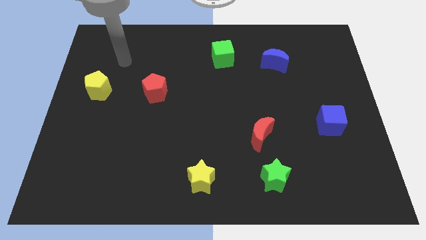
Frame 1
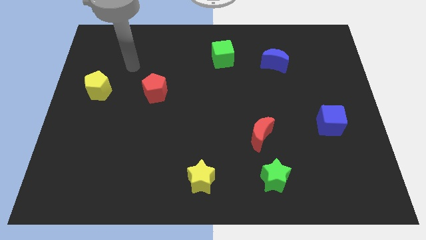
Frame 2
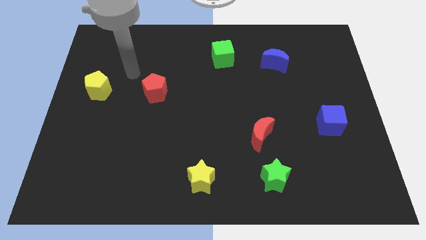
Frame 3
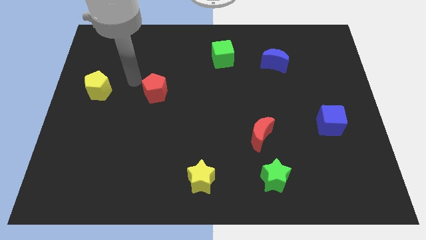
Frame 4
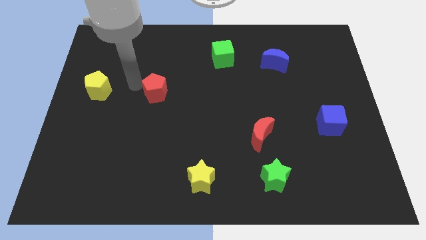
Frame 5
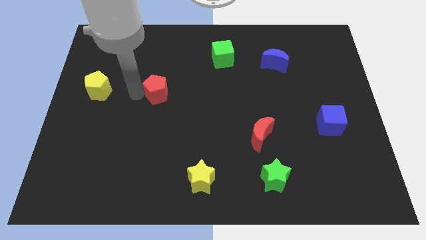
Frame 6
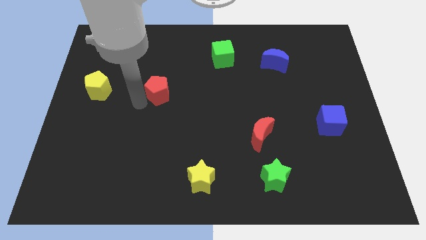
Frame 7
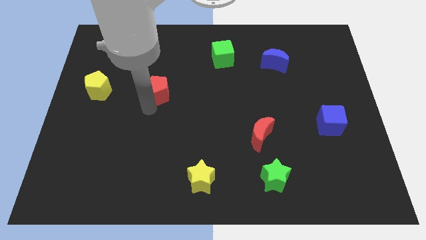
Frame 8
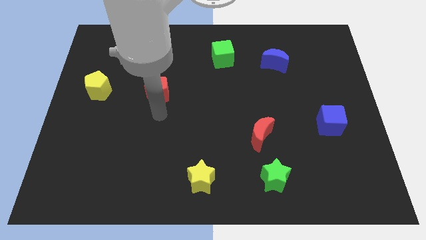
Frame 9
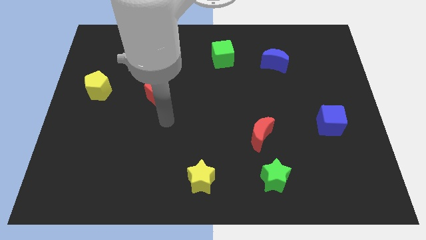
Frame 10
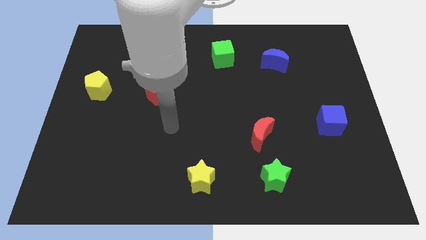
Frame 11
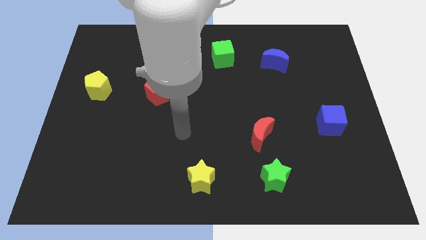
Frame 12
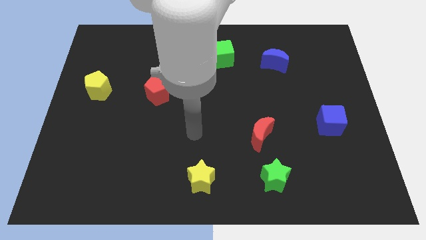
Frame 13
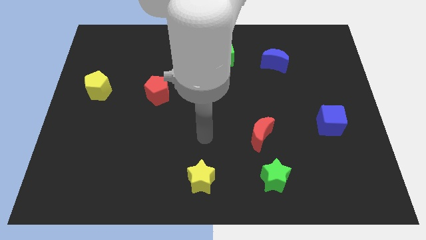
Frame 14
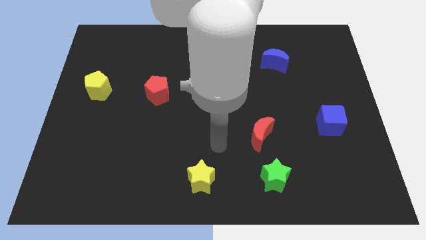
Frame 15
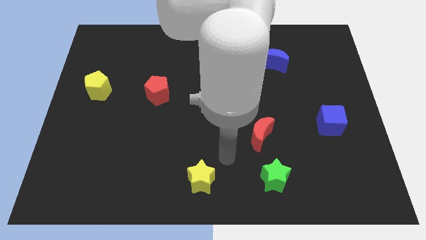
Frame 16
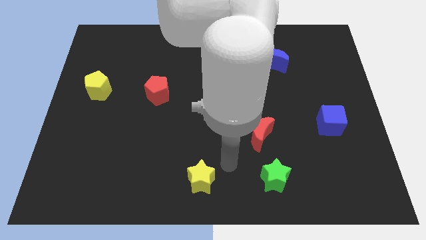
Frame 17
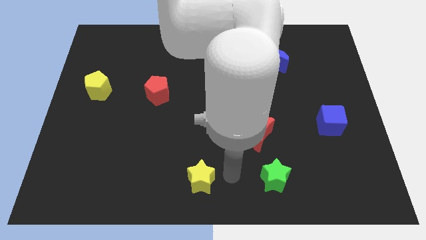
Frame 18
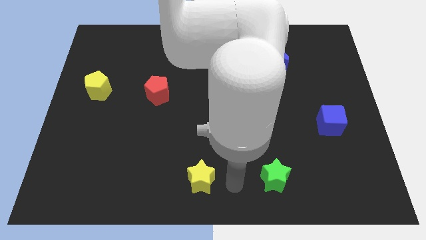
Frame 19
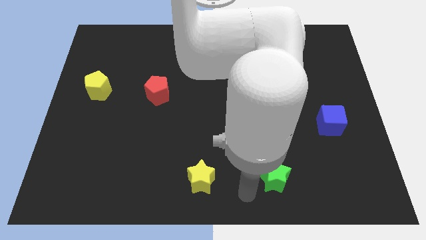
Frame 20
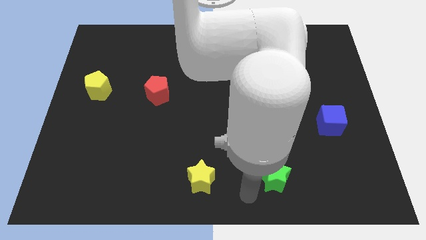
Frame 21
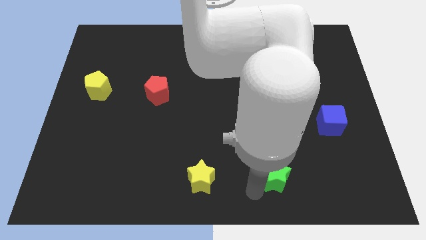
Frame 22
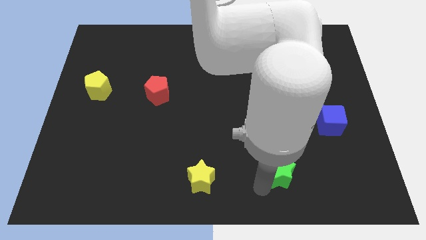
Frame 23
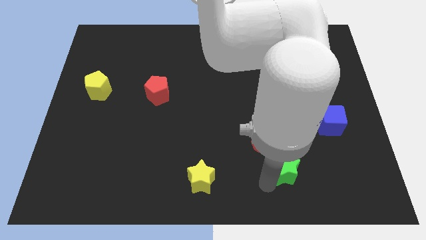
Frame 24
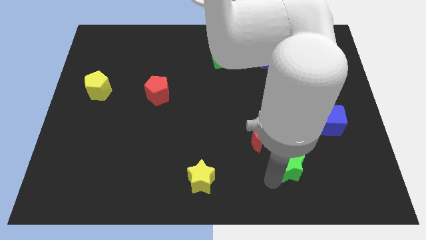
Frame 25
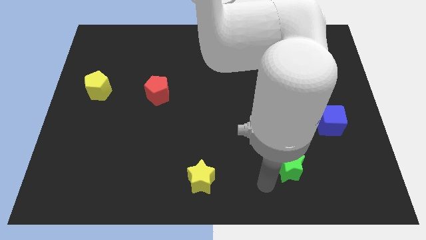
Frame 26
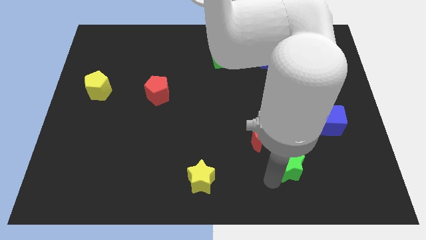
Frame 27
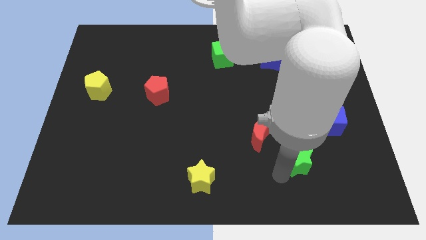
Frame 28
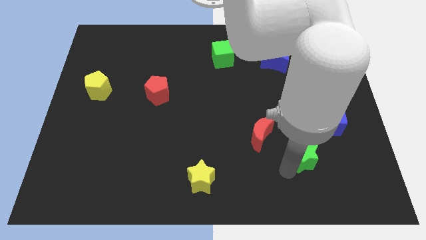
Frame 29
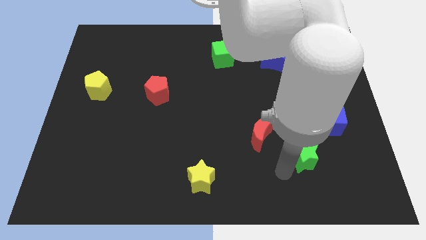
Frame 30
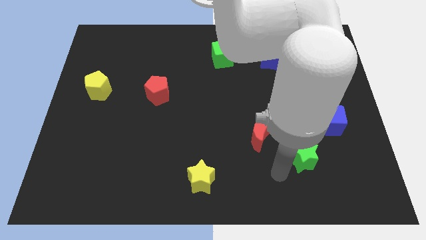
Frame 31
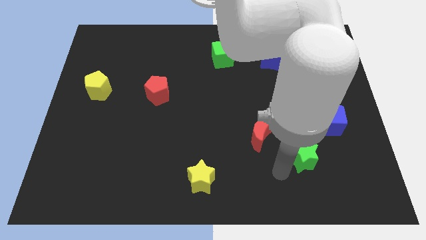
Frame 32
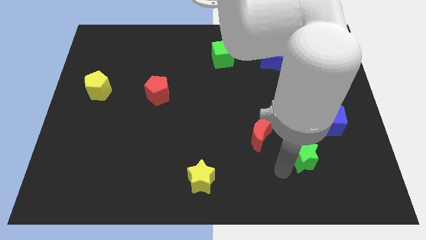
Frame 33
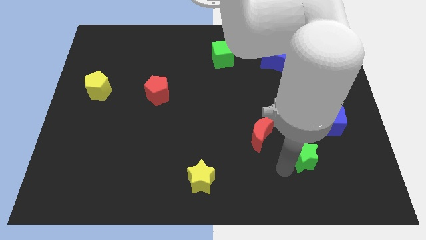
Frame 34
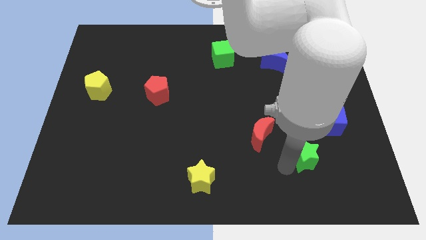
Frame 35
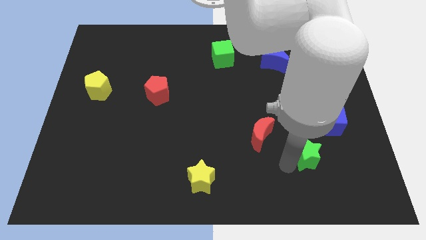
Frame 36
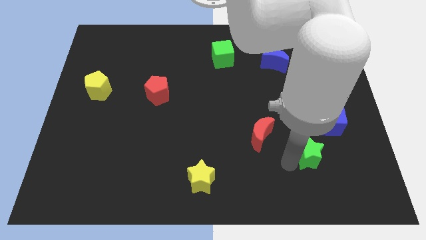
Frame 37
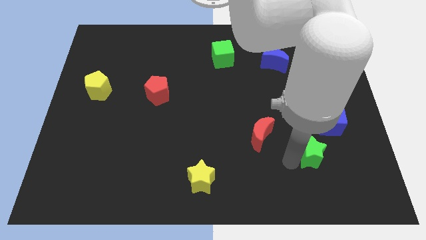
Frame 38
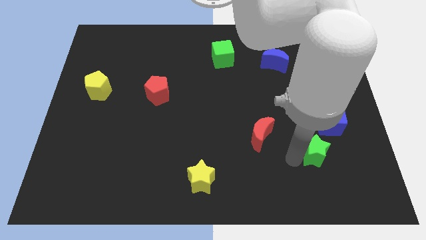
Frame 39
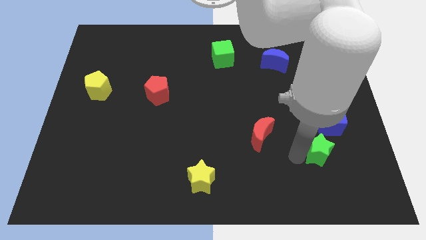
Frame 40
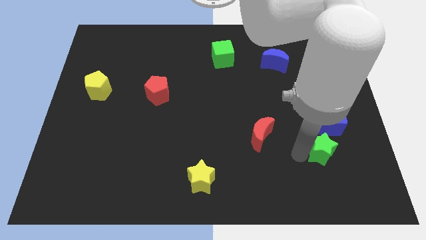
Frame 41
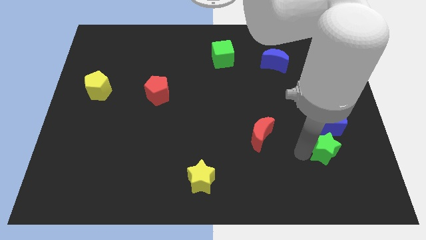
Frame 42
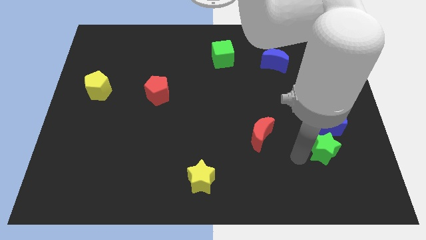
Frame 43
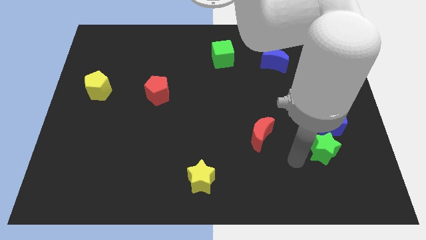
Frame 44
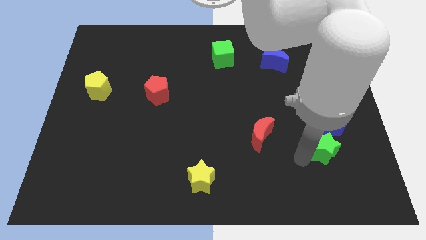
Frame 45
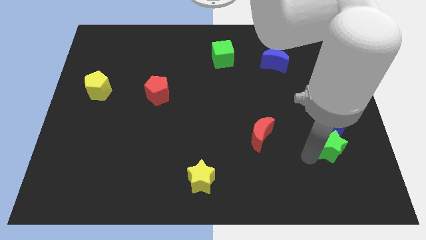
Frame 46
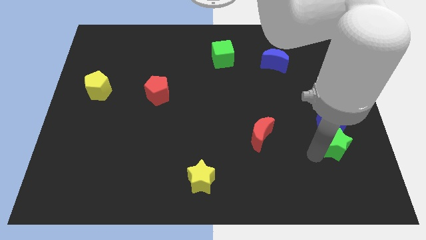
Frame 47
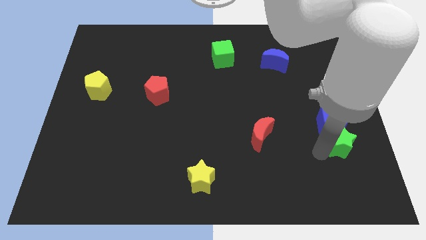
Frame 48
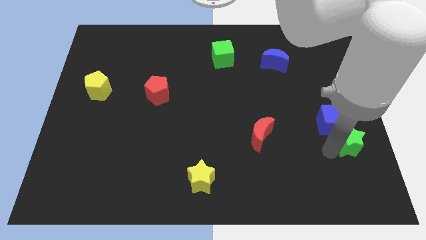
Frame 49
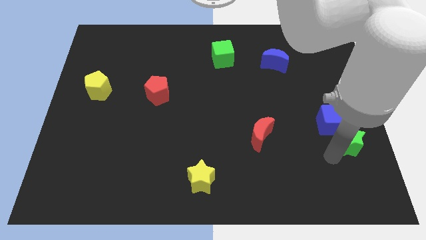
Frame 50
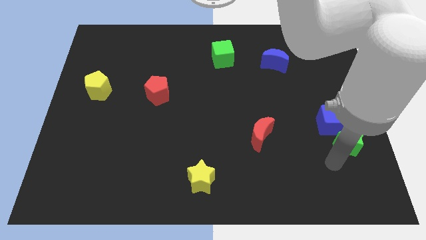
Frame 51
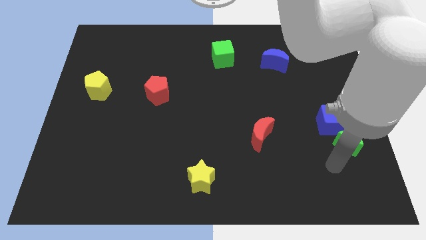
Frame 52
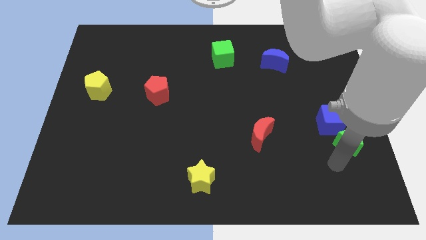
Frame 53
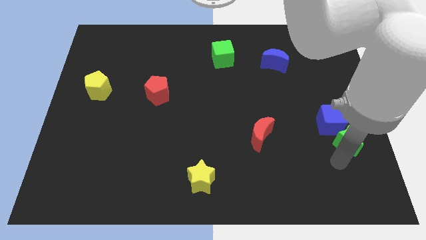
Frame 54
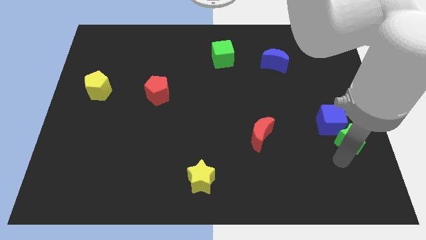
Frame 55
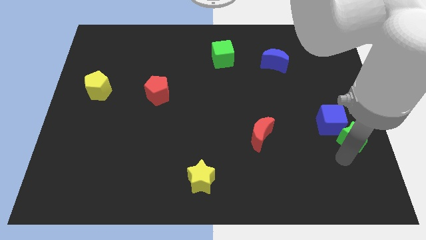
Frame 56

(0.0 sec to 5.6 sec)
push the green star to the right side of the board
